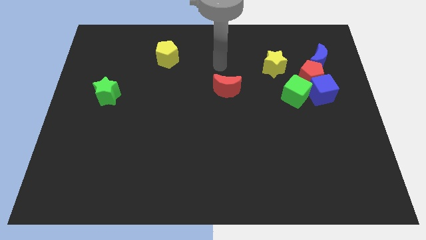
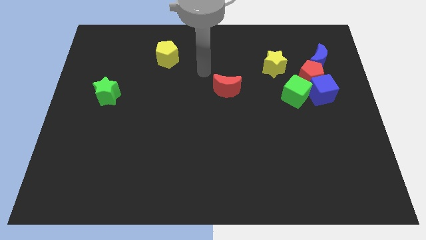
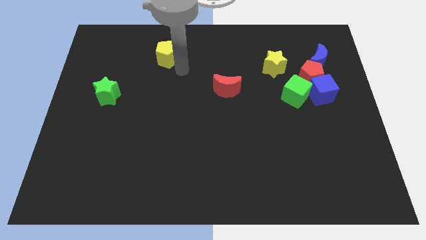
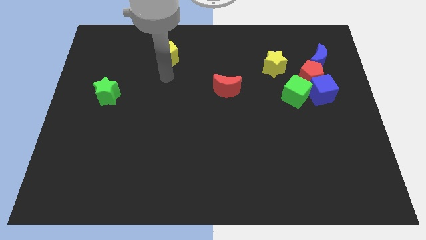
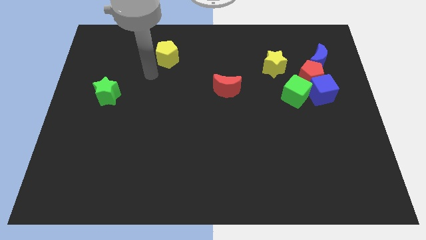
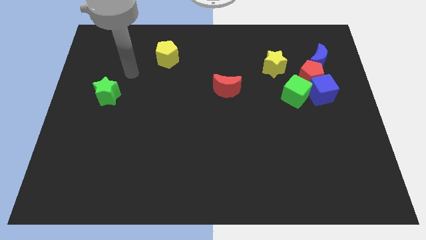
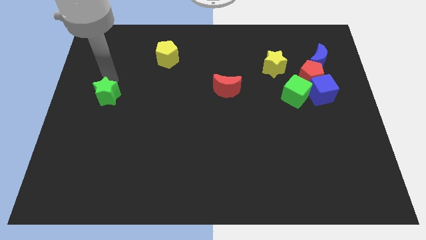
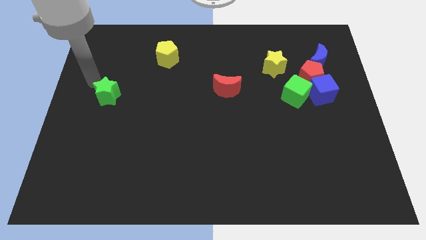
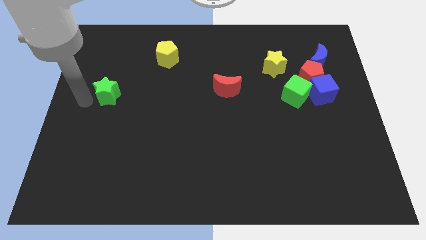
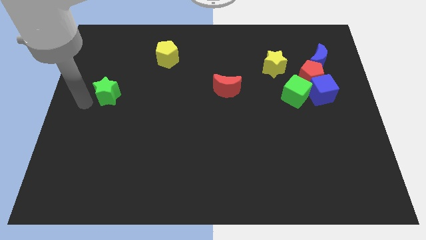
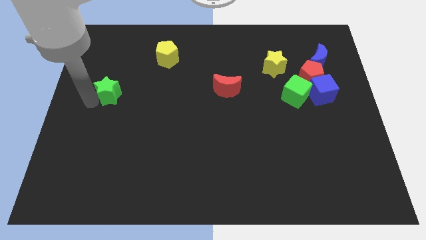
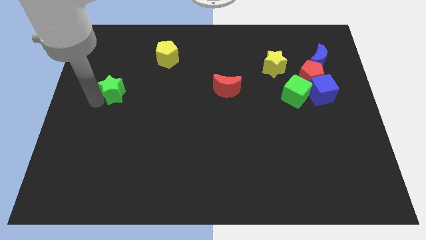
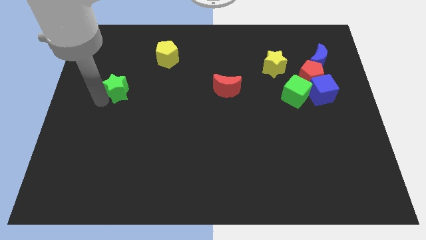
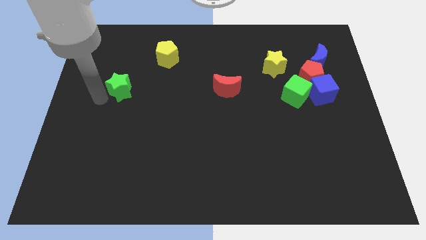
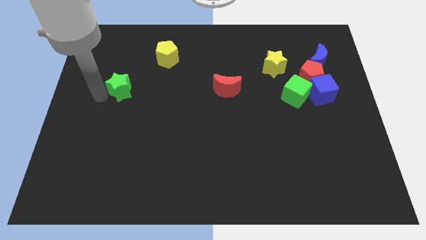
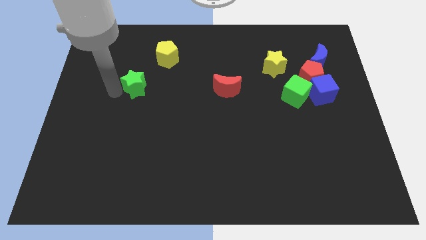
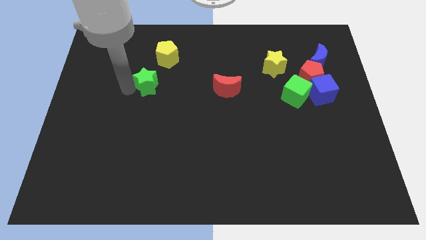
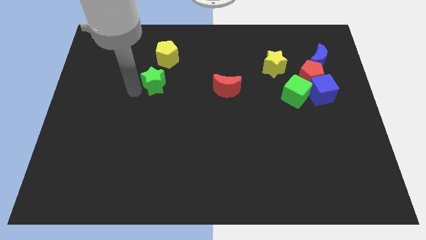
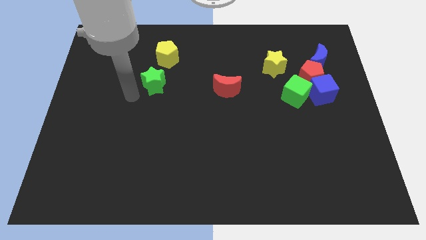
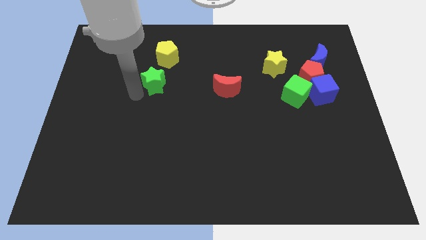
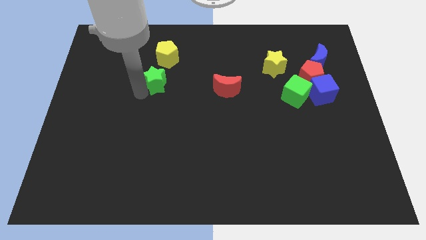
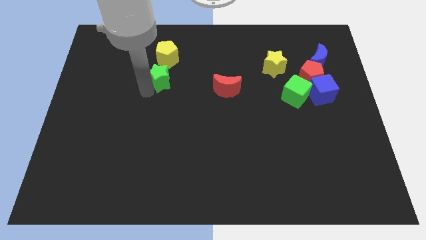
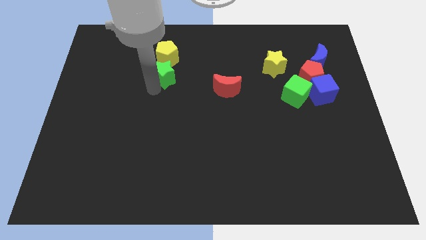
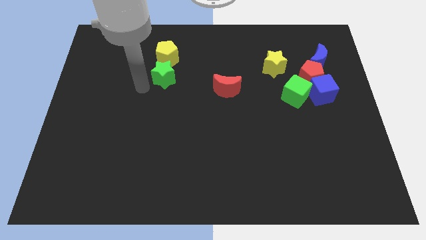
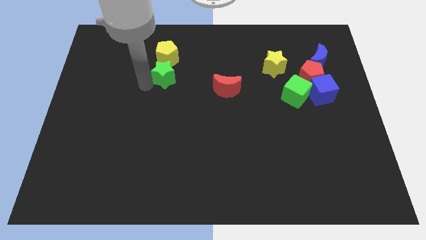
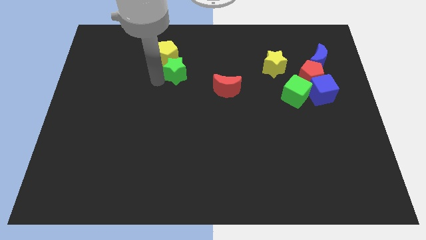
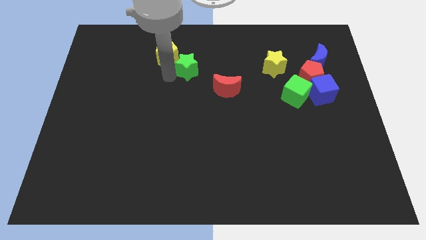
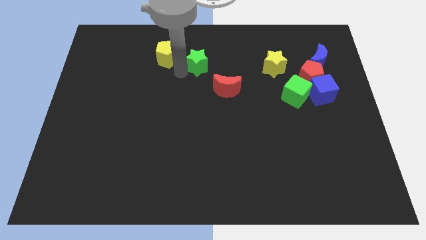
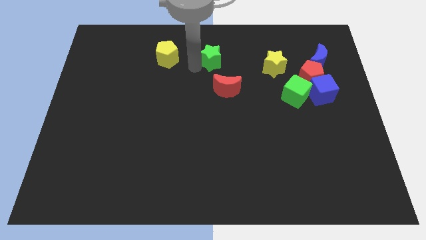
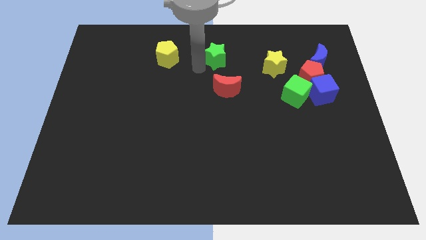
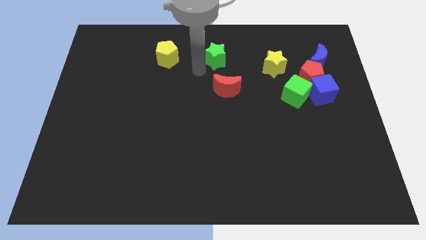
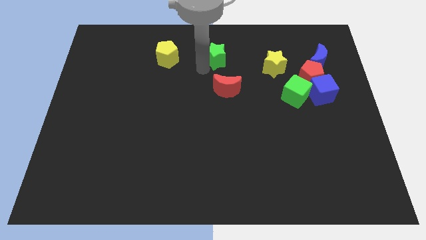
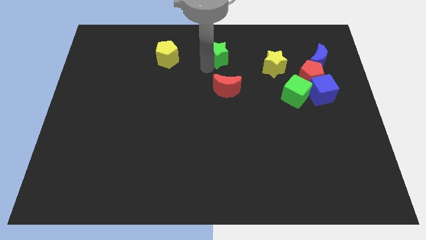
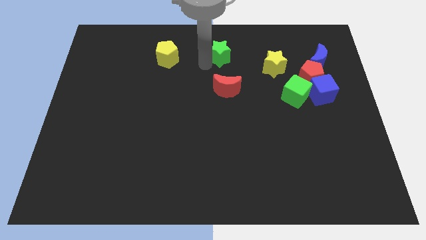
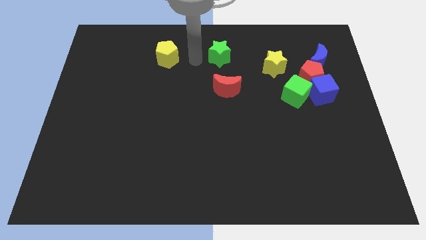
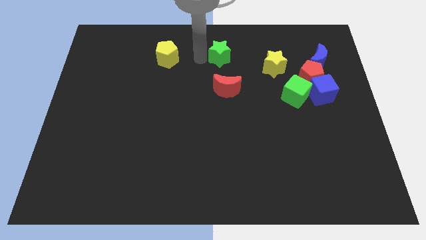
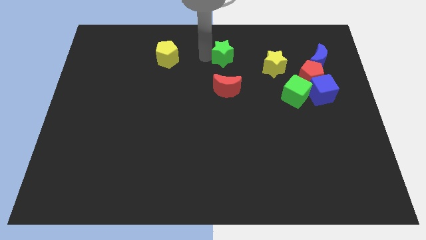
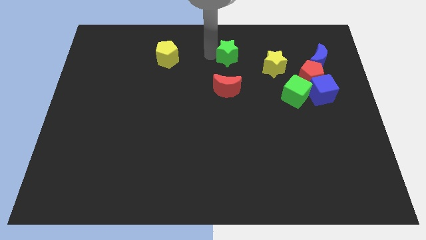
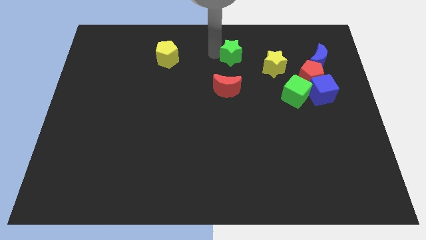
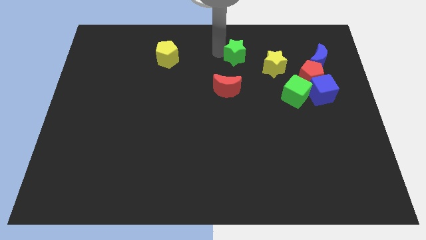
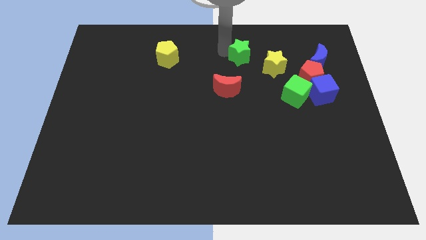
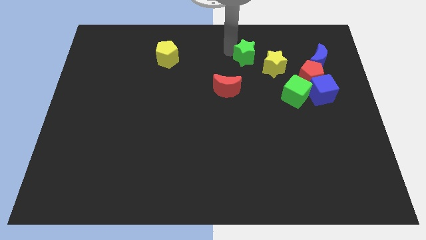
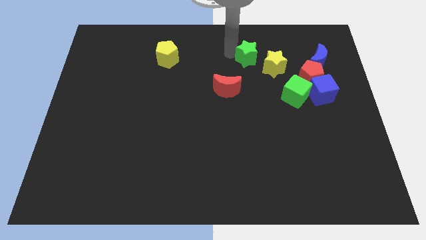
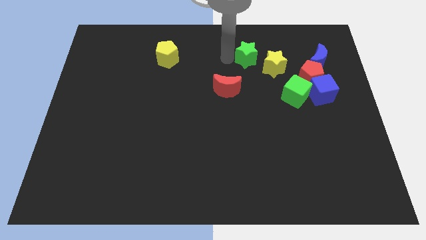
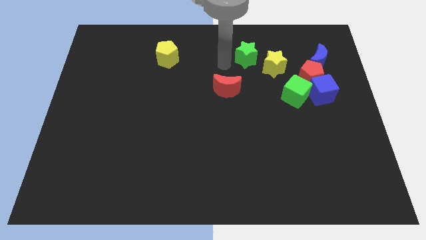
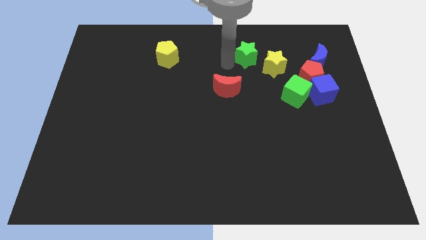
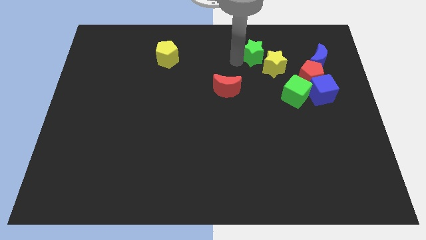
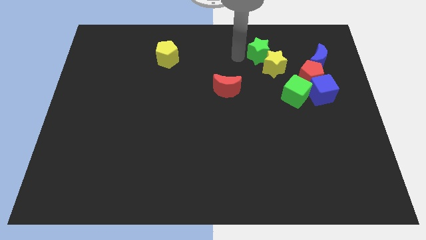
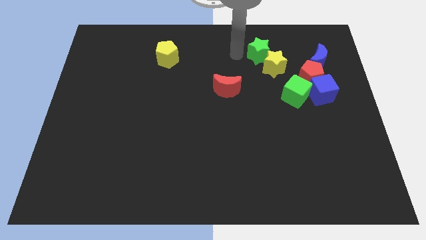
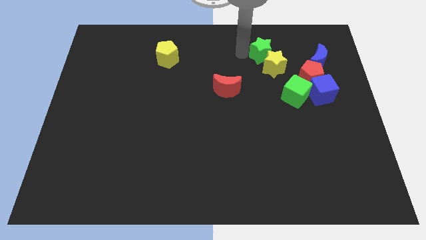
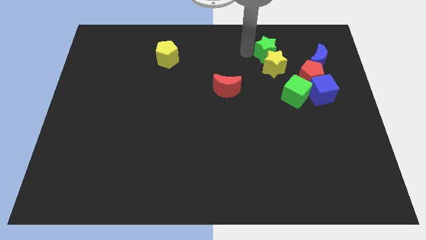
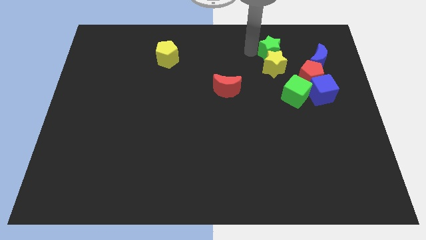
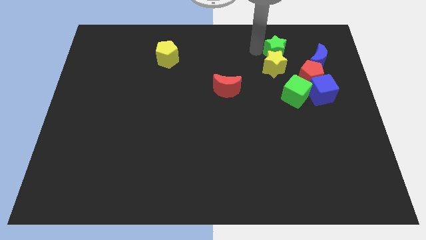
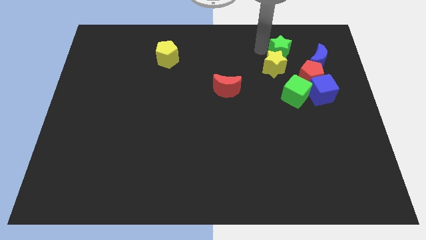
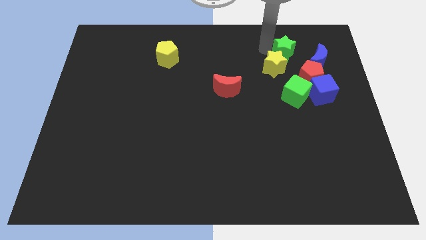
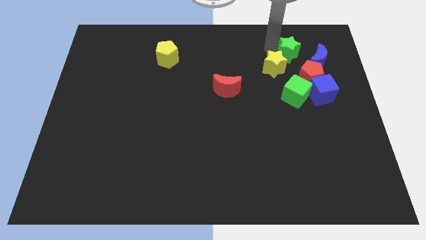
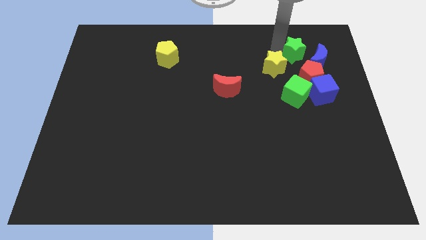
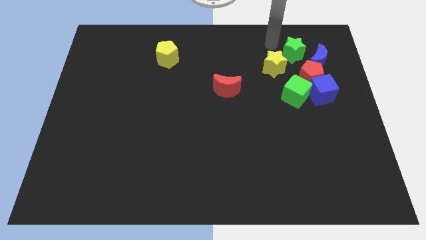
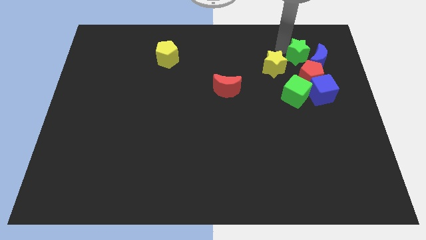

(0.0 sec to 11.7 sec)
move the green star close to the blue moon

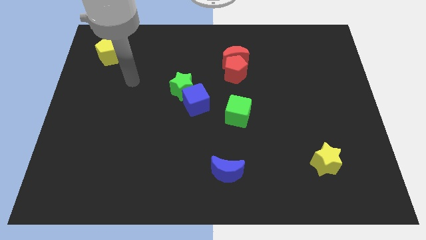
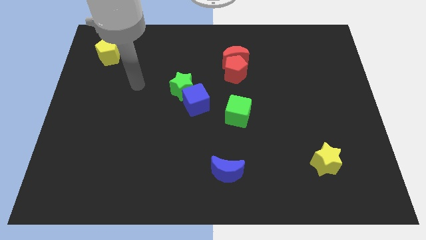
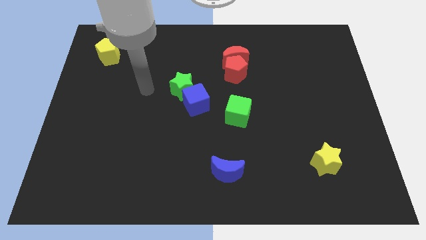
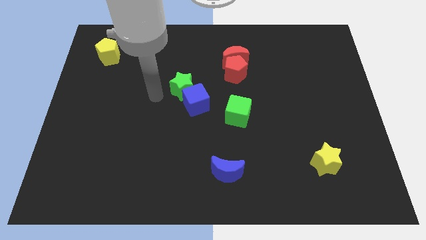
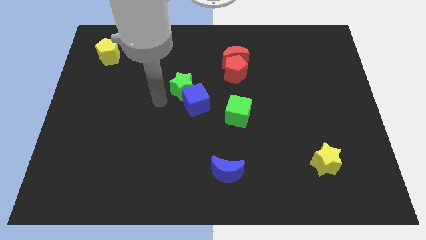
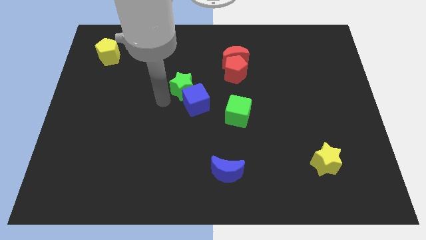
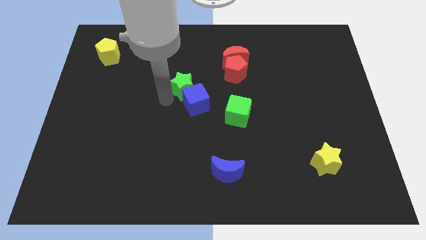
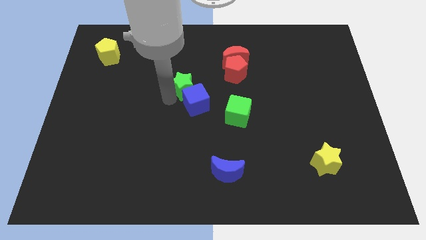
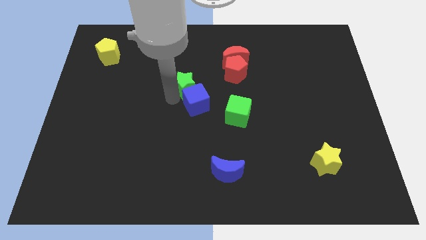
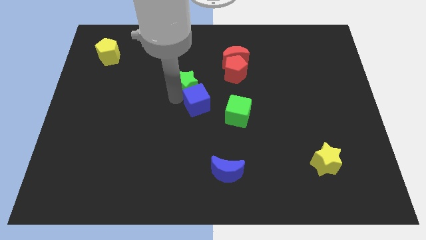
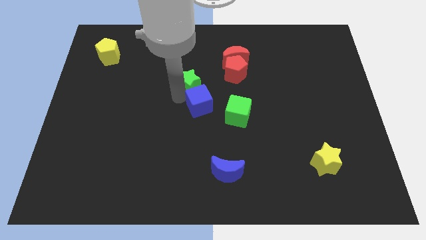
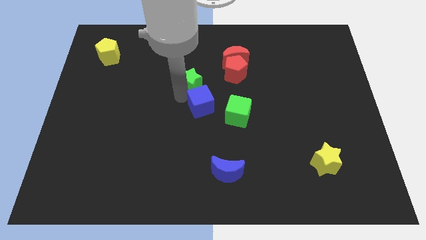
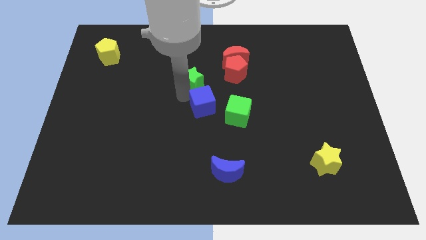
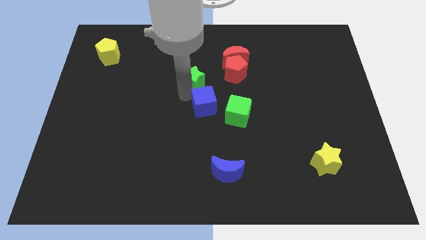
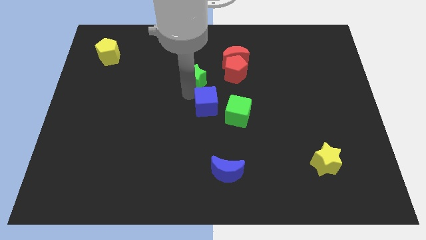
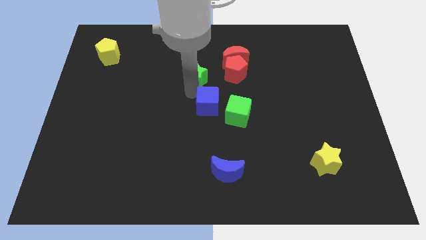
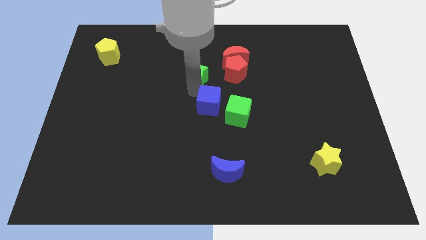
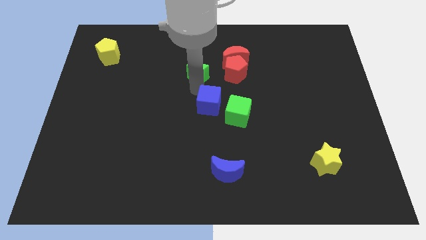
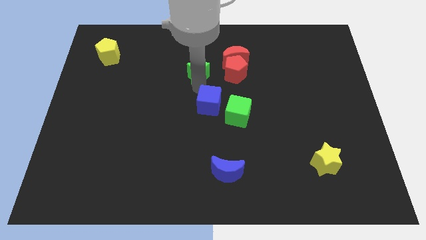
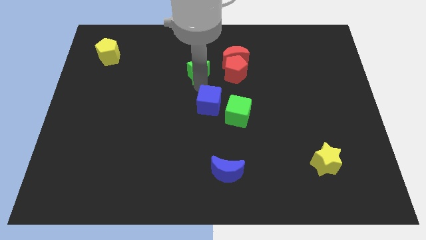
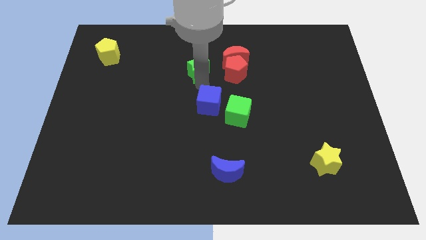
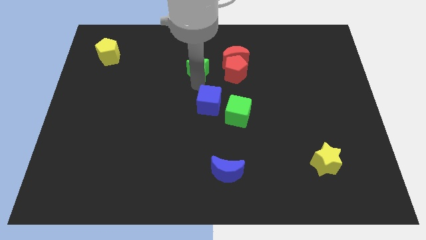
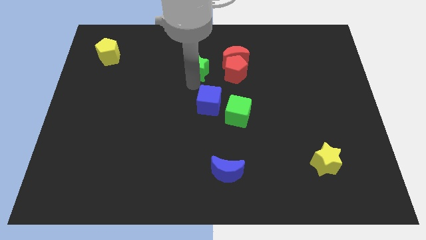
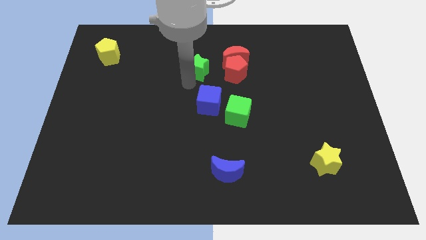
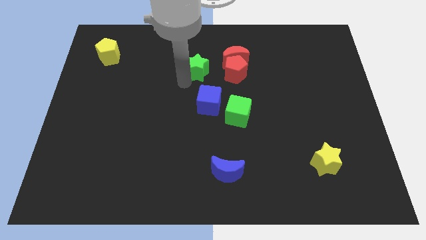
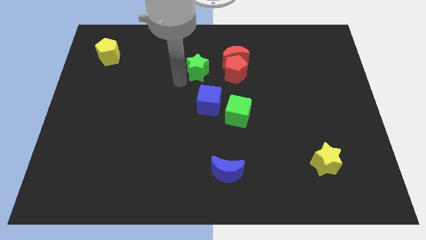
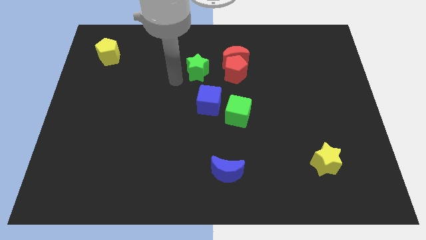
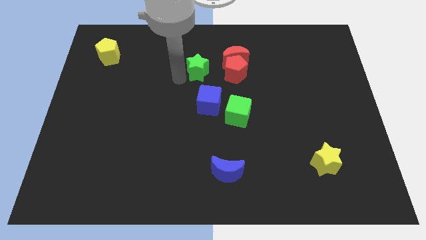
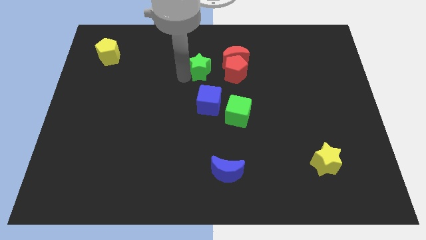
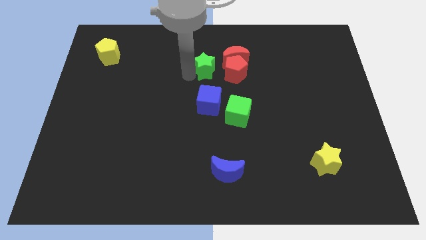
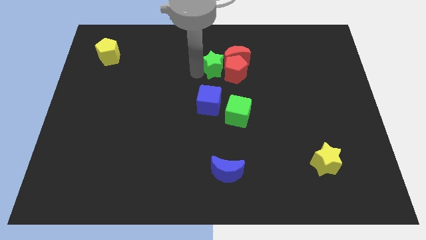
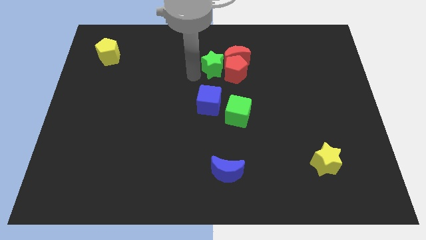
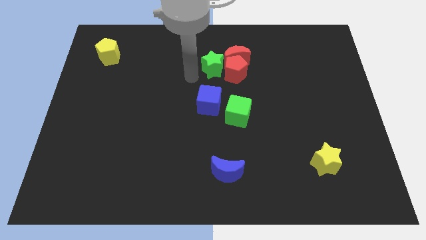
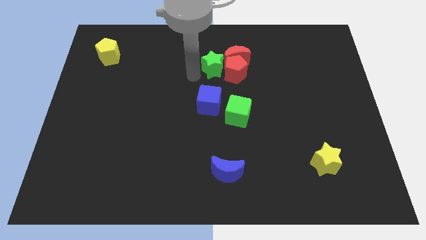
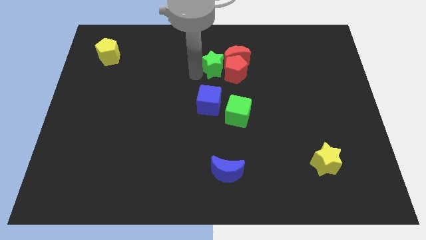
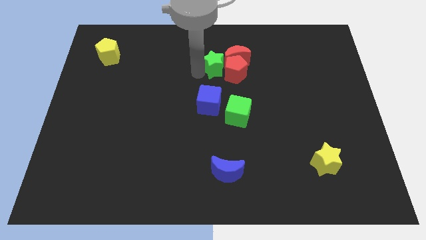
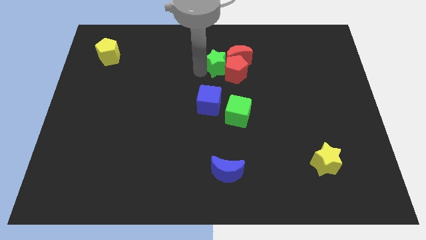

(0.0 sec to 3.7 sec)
put the green star close to the red moon
